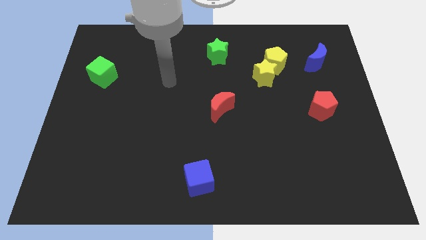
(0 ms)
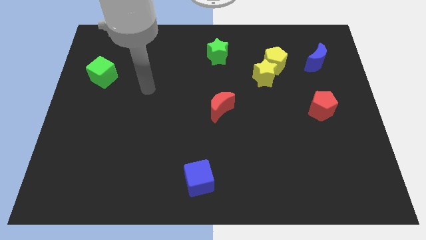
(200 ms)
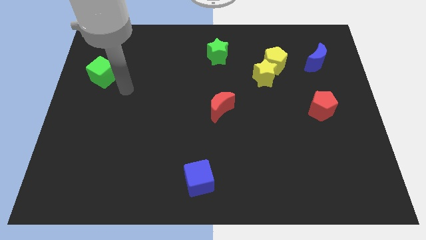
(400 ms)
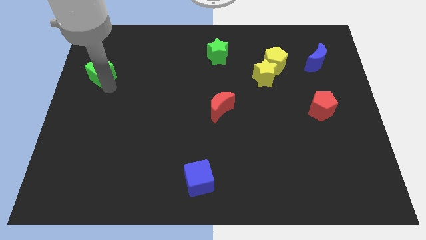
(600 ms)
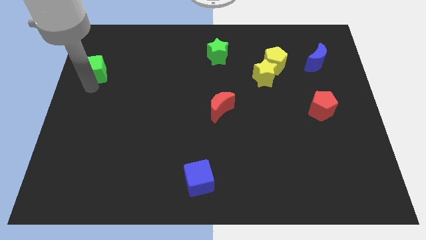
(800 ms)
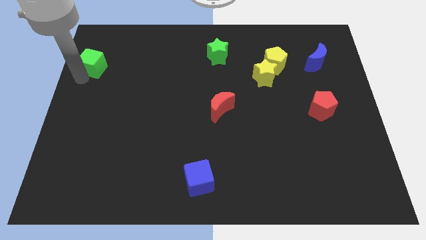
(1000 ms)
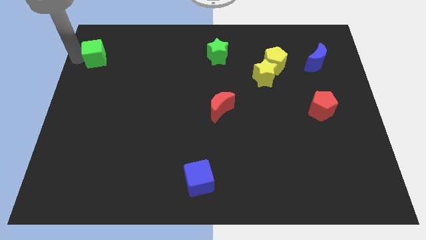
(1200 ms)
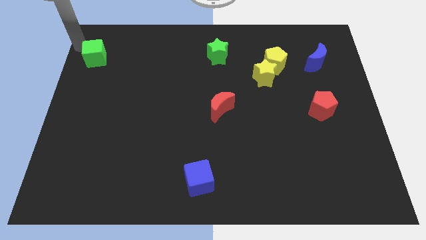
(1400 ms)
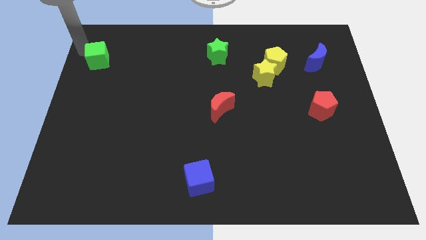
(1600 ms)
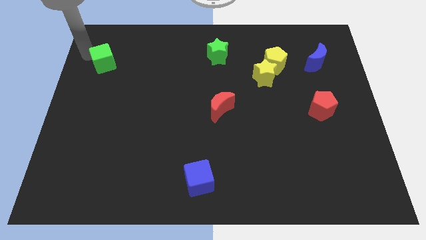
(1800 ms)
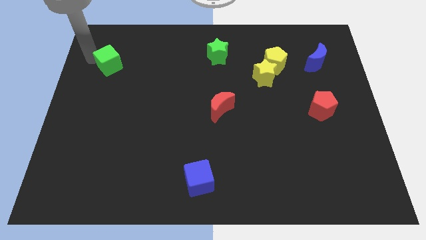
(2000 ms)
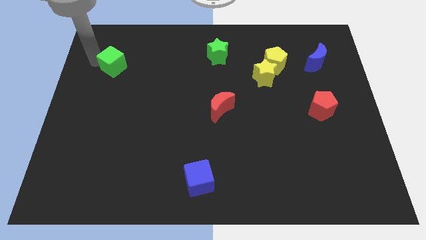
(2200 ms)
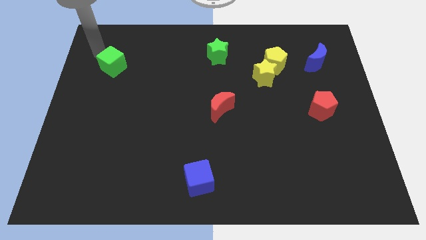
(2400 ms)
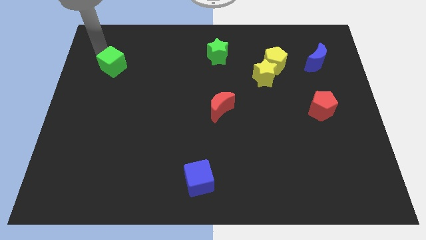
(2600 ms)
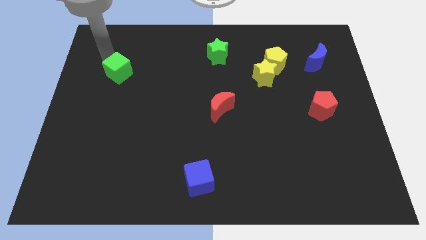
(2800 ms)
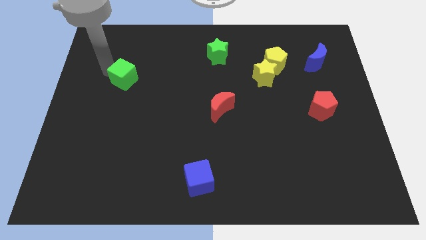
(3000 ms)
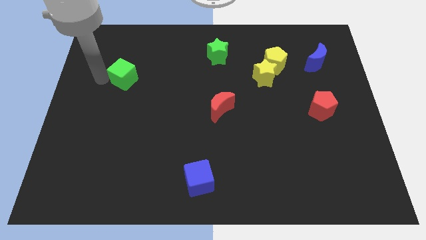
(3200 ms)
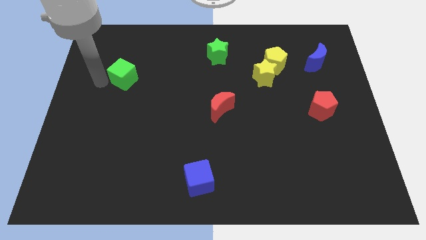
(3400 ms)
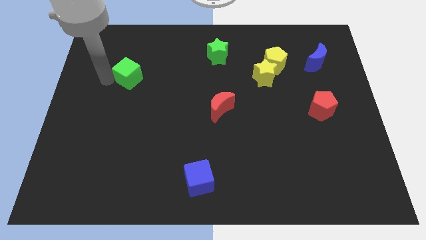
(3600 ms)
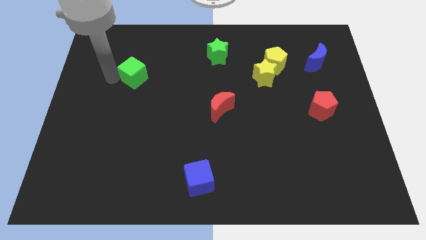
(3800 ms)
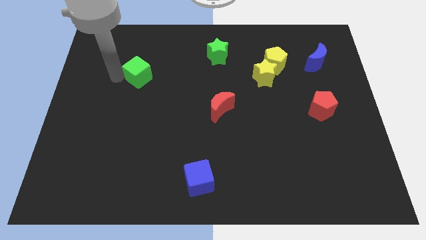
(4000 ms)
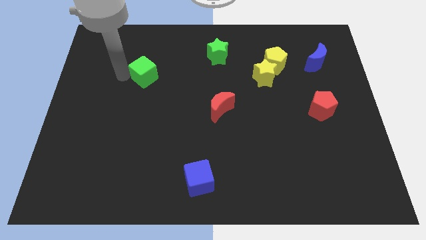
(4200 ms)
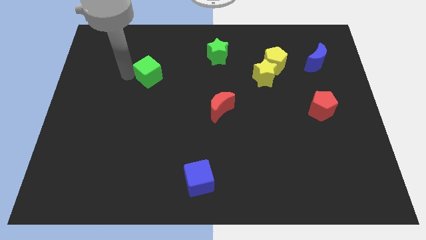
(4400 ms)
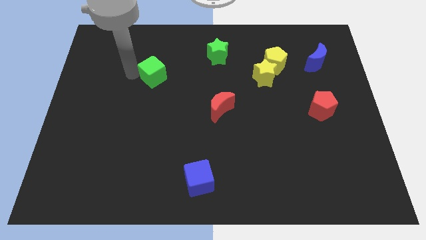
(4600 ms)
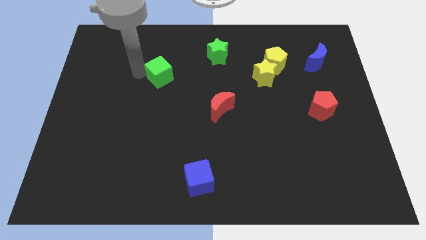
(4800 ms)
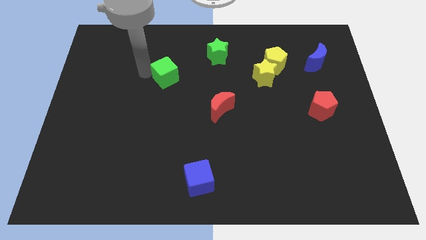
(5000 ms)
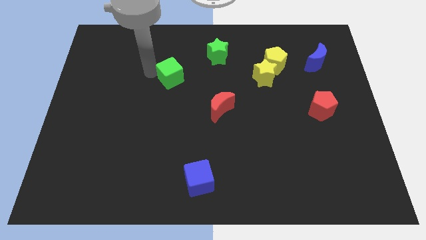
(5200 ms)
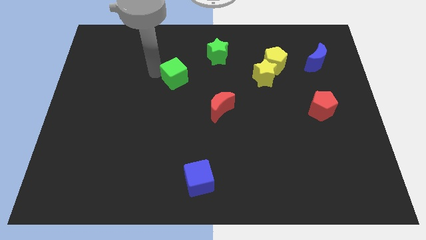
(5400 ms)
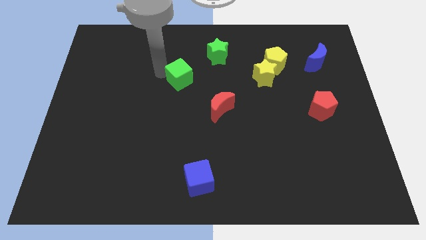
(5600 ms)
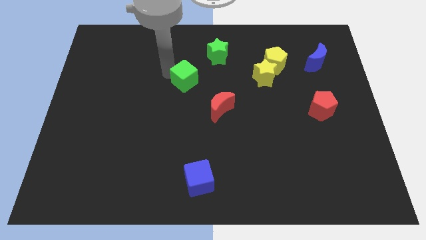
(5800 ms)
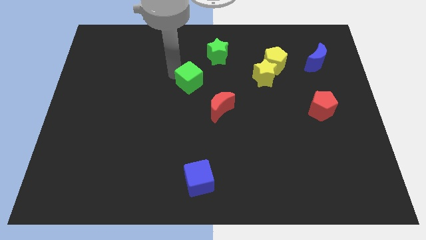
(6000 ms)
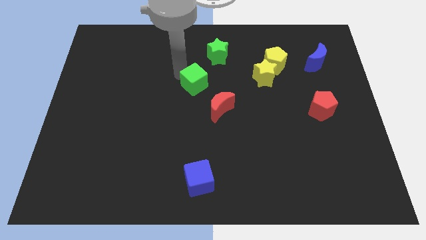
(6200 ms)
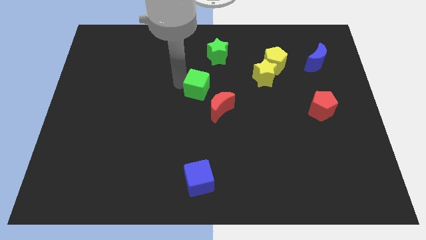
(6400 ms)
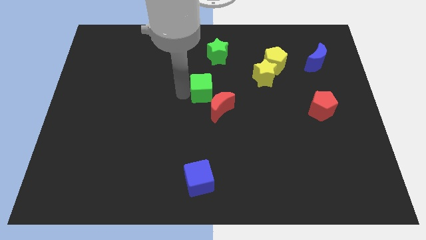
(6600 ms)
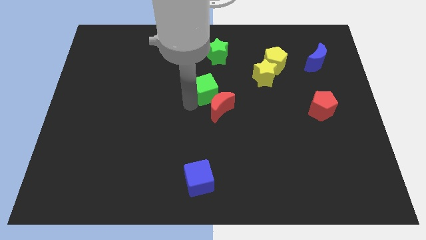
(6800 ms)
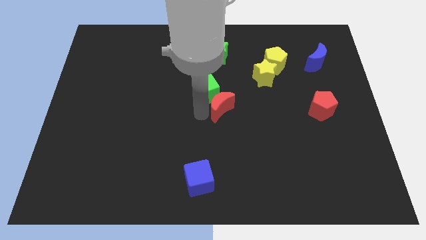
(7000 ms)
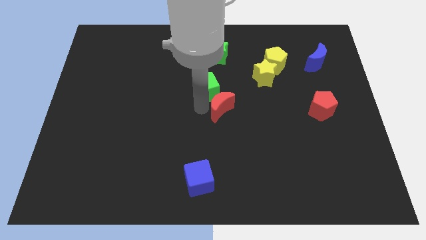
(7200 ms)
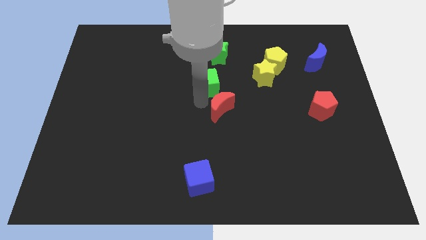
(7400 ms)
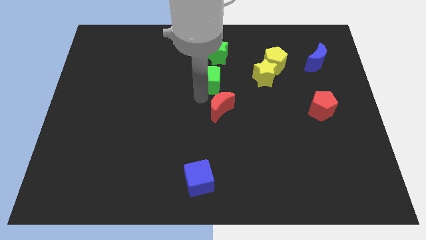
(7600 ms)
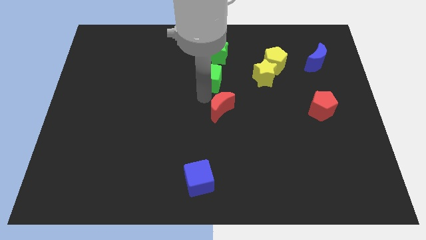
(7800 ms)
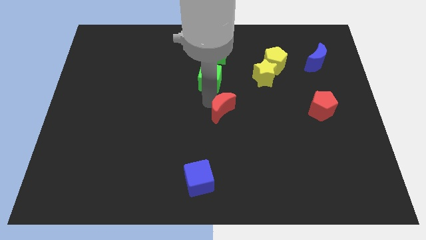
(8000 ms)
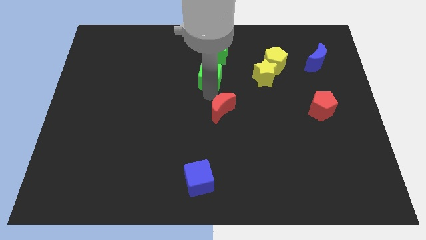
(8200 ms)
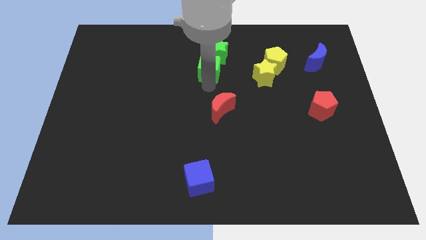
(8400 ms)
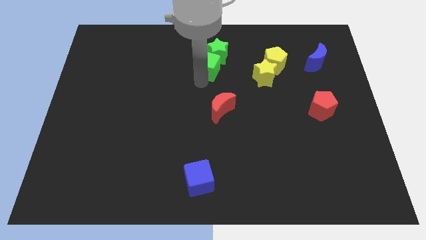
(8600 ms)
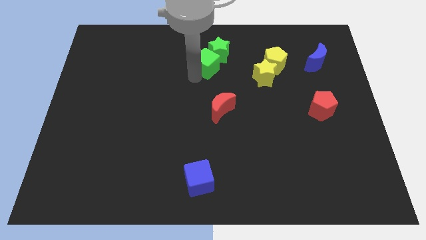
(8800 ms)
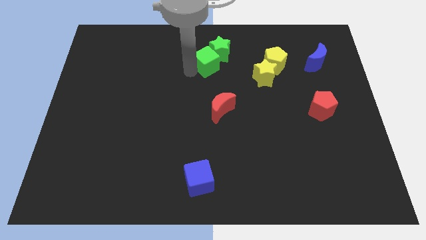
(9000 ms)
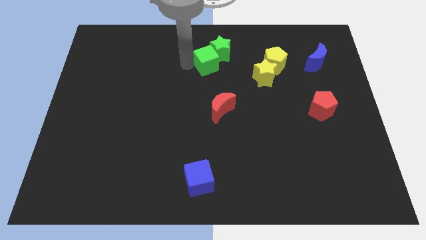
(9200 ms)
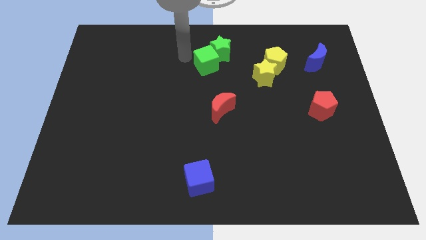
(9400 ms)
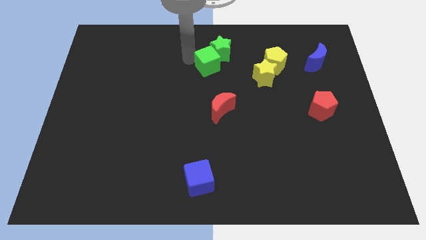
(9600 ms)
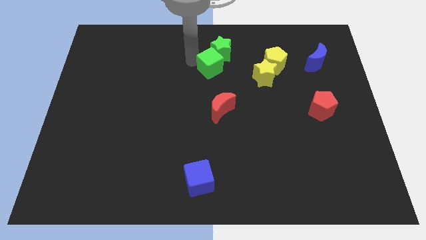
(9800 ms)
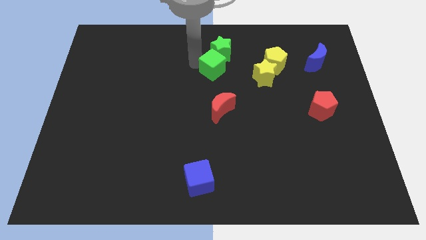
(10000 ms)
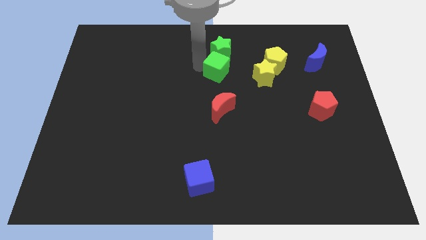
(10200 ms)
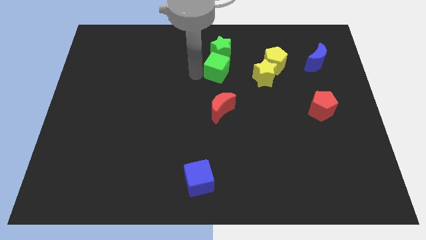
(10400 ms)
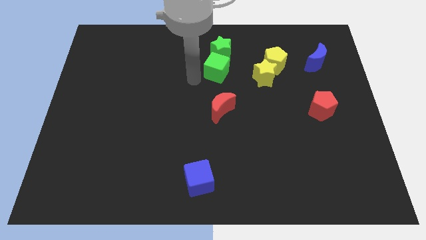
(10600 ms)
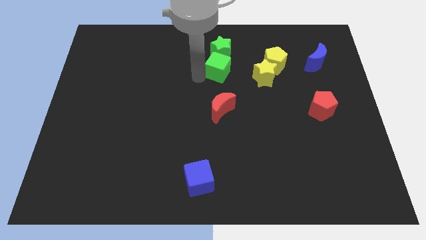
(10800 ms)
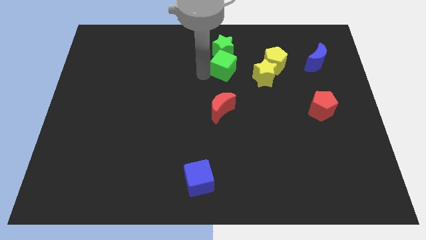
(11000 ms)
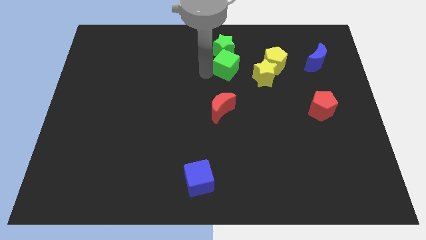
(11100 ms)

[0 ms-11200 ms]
push the green cube to the top left side of the yellow star

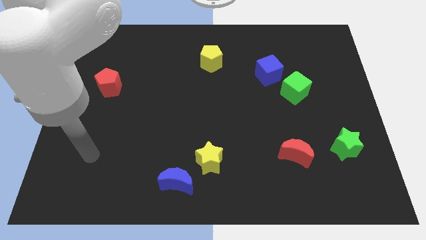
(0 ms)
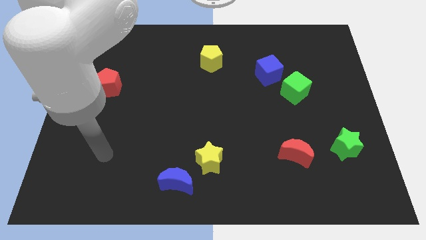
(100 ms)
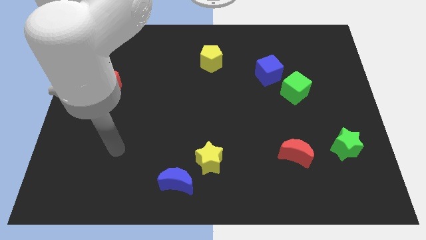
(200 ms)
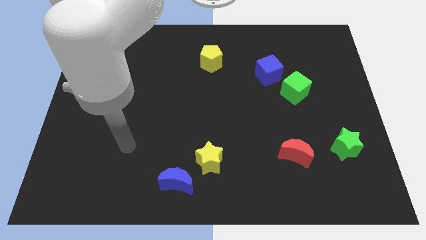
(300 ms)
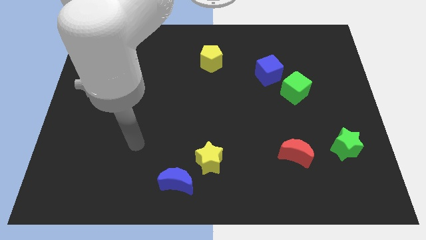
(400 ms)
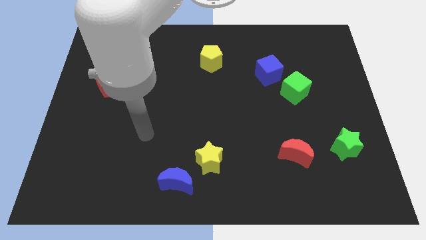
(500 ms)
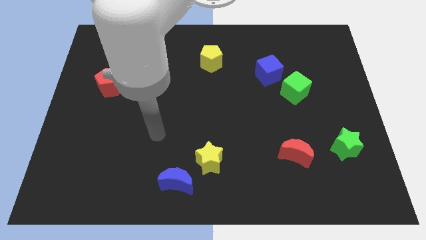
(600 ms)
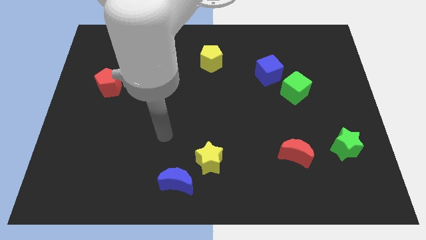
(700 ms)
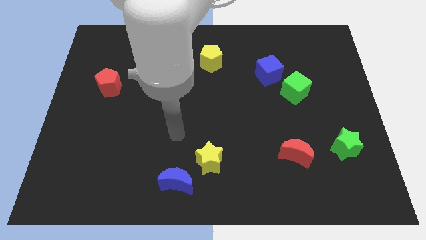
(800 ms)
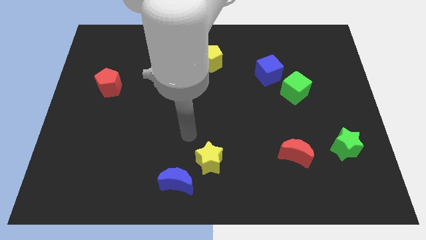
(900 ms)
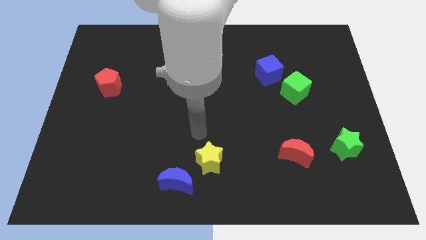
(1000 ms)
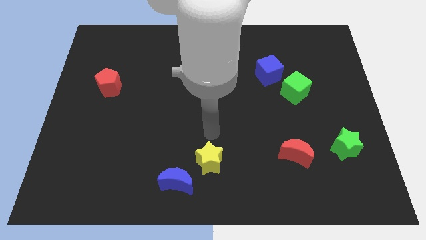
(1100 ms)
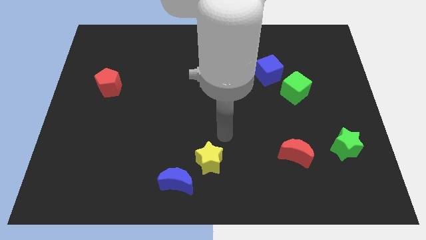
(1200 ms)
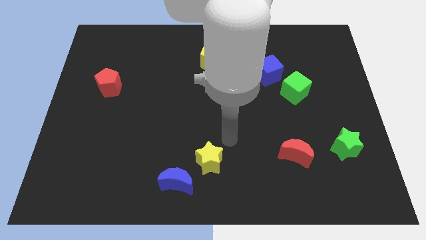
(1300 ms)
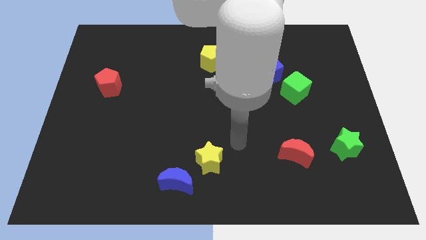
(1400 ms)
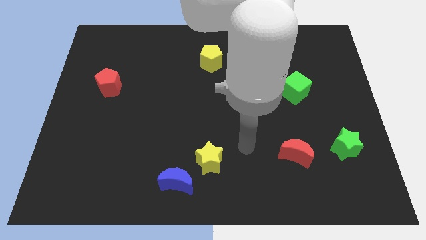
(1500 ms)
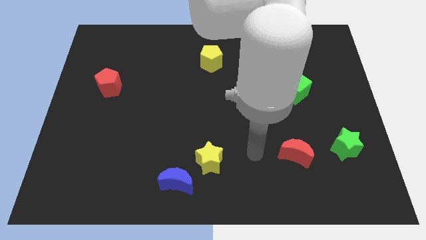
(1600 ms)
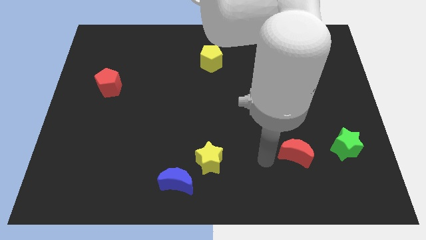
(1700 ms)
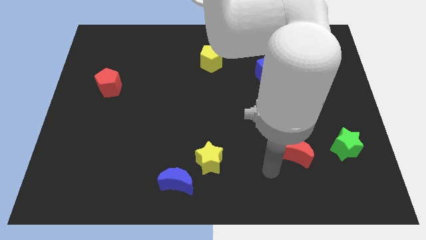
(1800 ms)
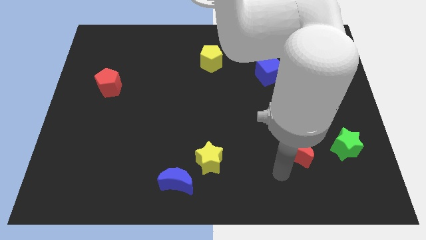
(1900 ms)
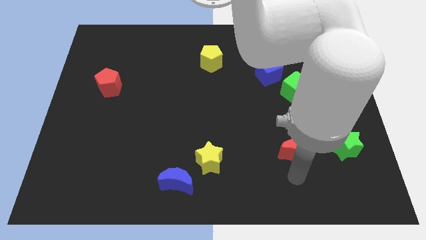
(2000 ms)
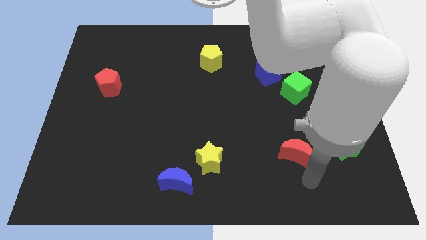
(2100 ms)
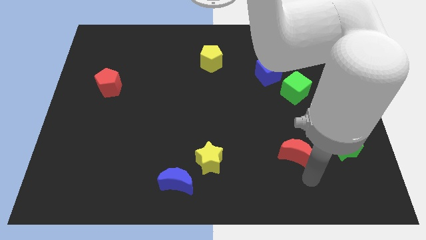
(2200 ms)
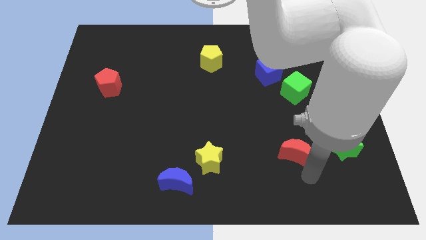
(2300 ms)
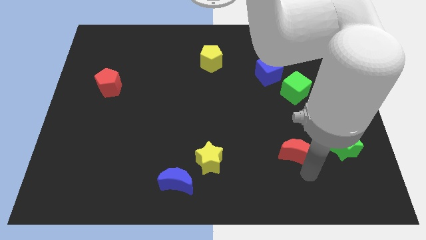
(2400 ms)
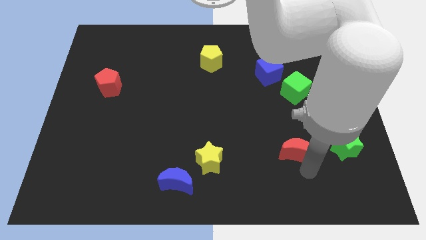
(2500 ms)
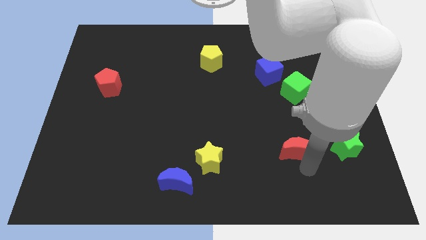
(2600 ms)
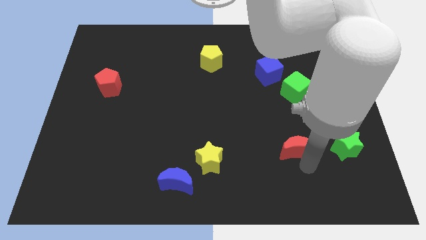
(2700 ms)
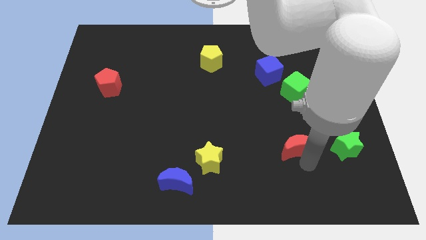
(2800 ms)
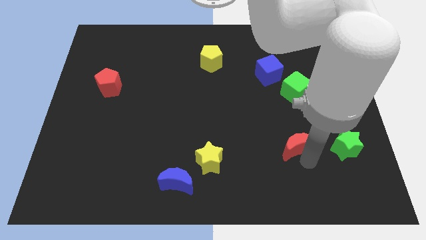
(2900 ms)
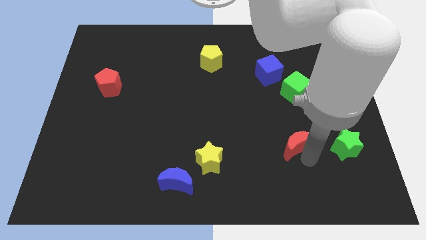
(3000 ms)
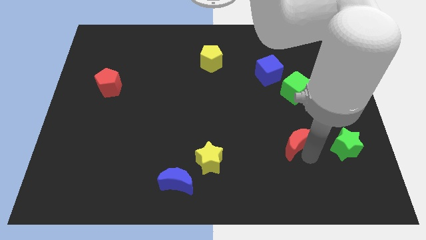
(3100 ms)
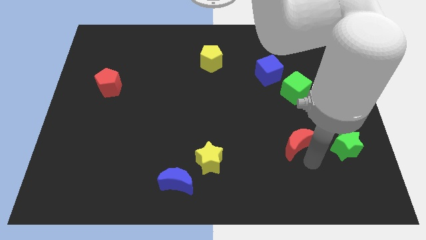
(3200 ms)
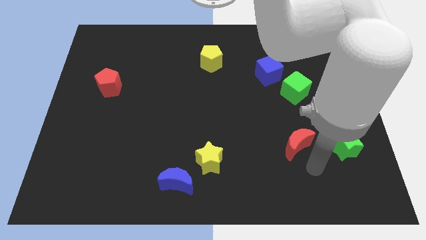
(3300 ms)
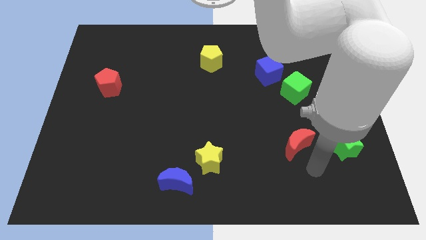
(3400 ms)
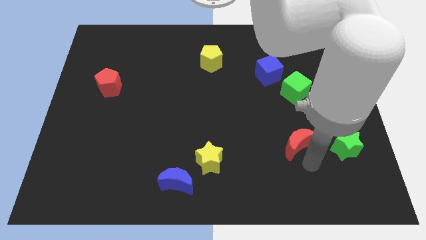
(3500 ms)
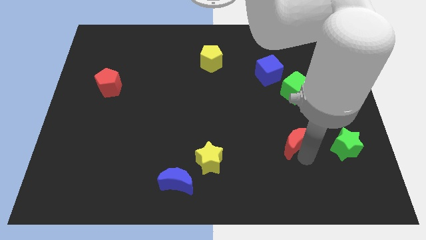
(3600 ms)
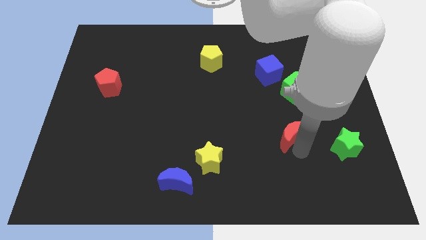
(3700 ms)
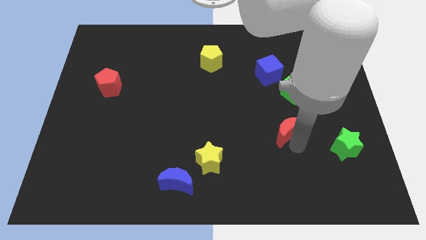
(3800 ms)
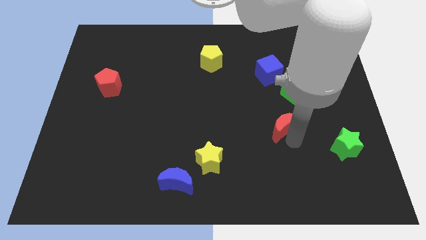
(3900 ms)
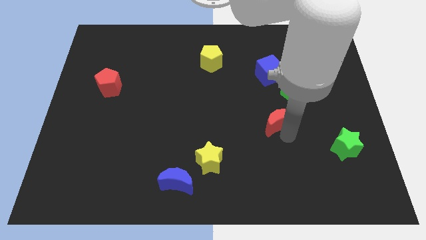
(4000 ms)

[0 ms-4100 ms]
push the red moon diagonally down and to the left of the green cube
